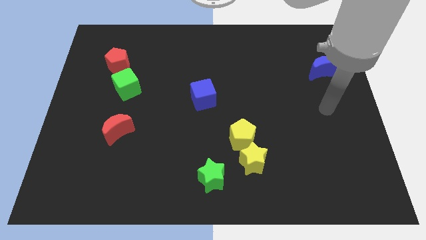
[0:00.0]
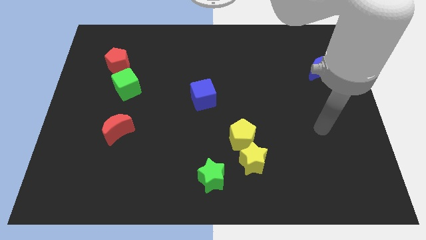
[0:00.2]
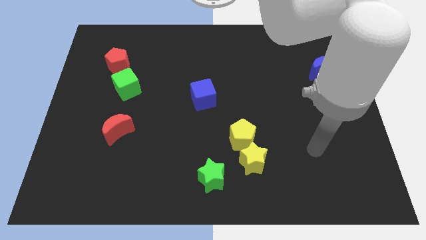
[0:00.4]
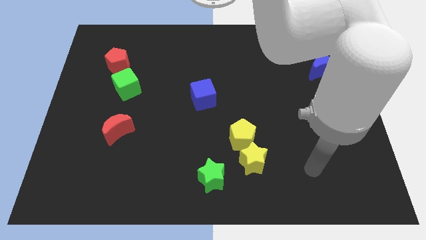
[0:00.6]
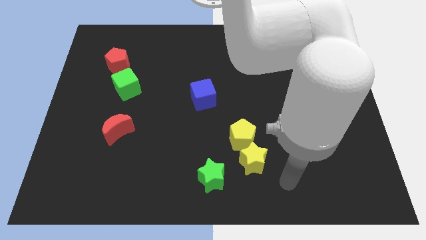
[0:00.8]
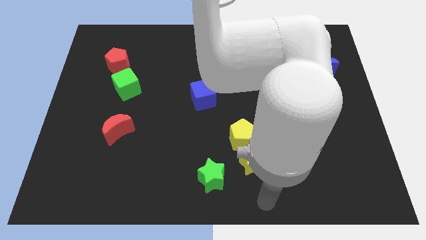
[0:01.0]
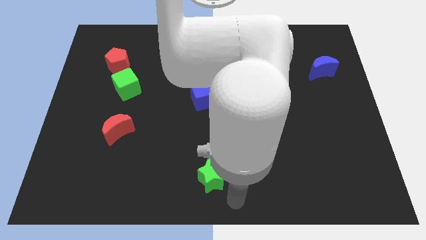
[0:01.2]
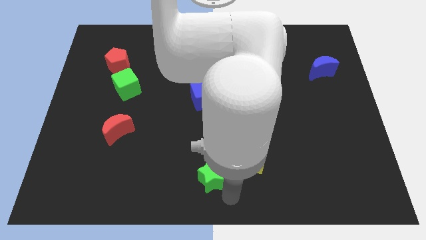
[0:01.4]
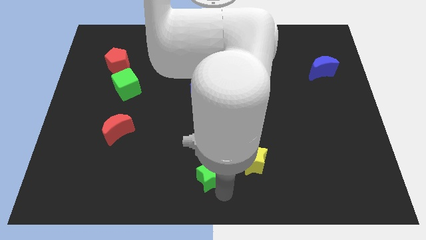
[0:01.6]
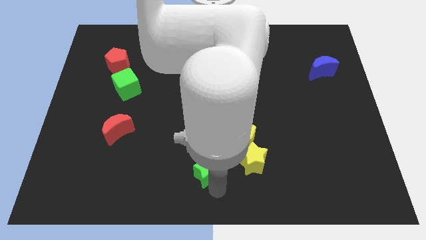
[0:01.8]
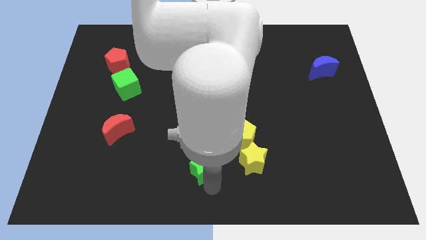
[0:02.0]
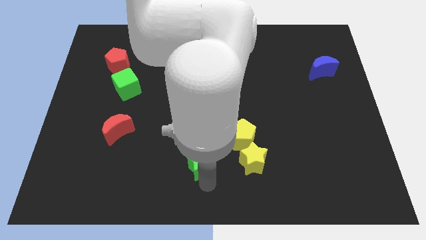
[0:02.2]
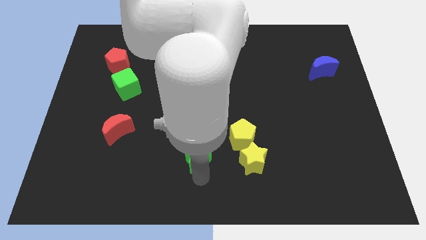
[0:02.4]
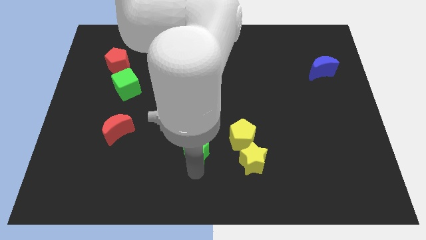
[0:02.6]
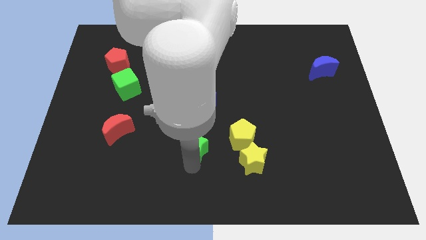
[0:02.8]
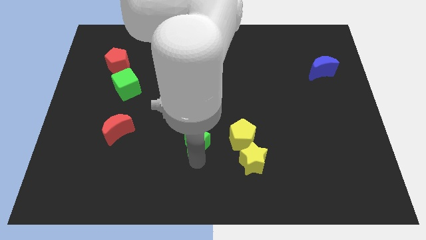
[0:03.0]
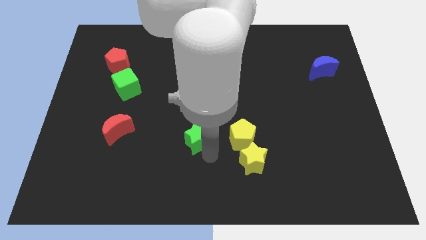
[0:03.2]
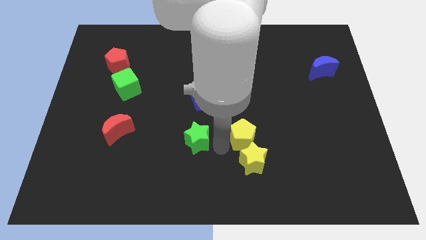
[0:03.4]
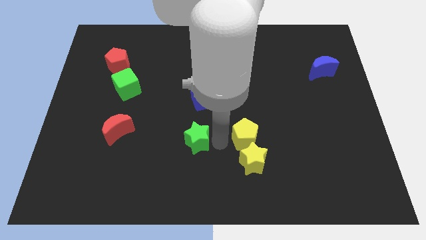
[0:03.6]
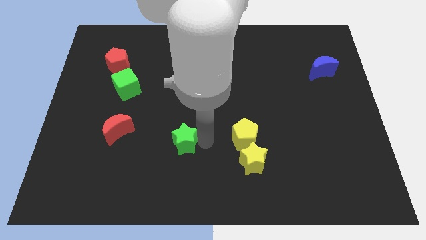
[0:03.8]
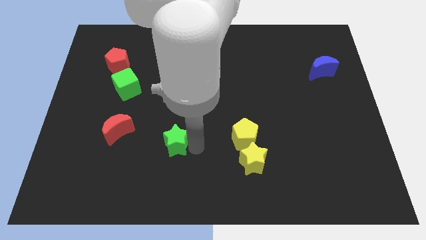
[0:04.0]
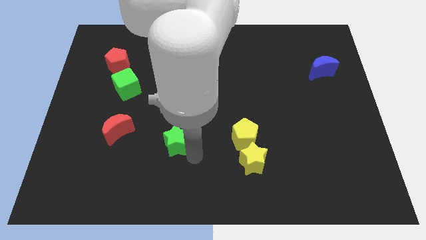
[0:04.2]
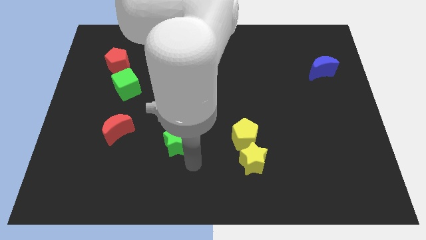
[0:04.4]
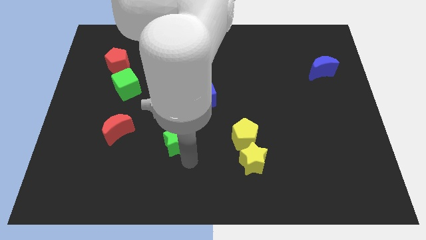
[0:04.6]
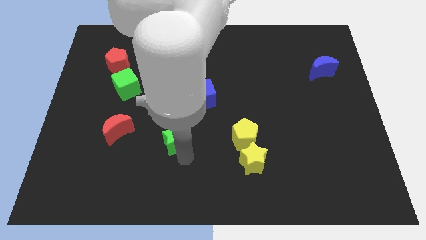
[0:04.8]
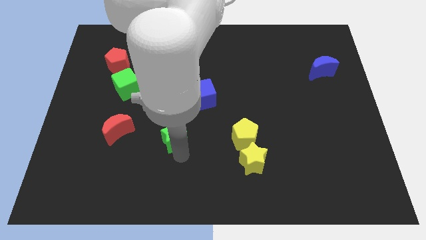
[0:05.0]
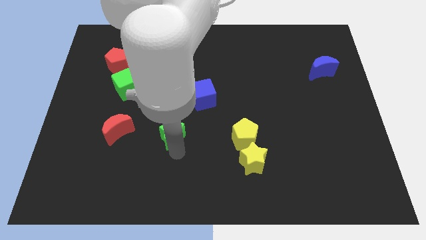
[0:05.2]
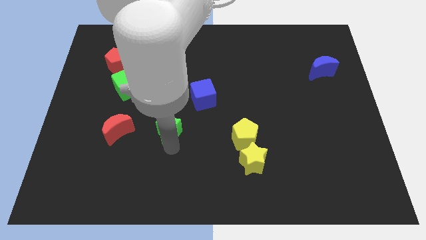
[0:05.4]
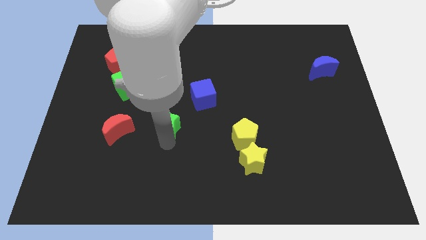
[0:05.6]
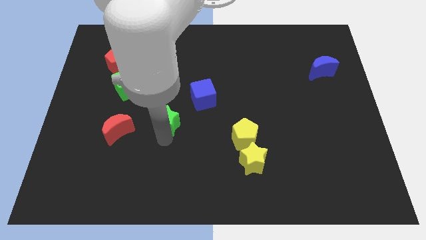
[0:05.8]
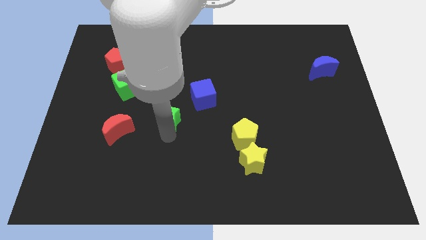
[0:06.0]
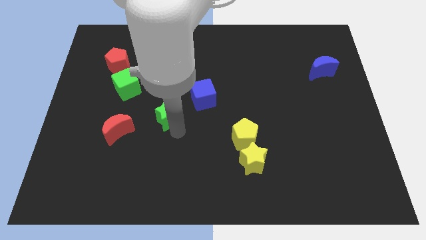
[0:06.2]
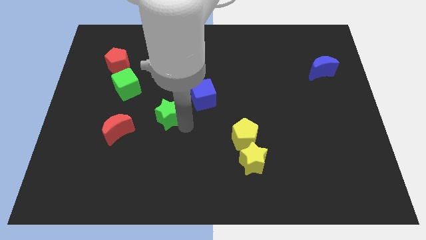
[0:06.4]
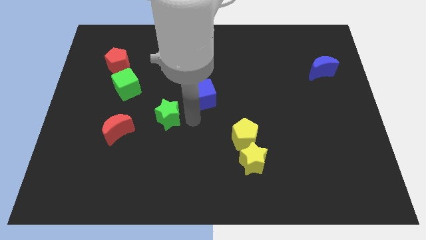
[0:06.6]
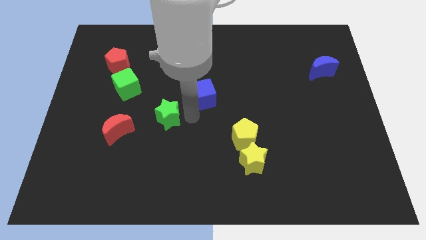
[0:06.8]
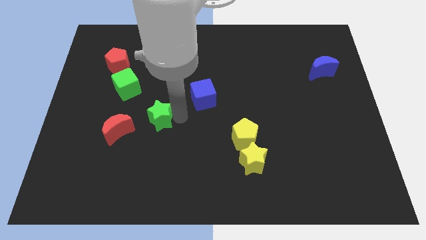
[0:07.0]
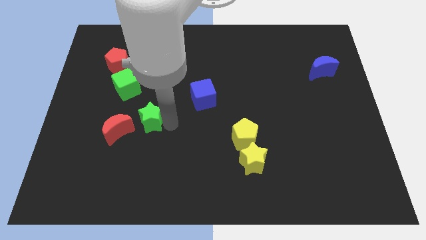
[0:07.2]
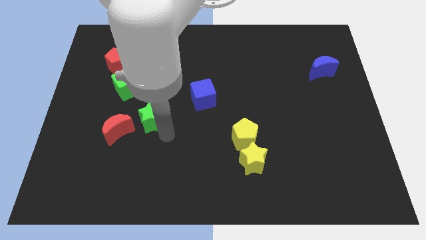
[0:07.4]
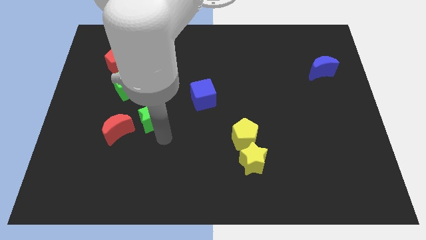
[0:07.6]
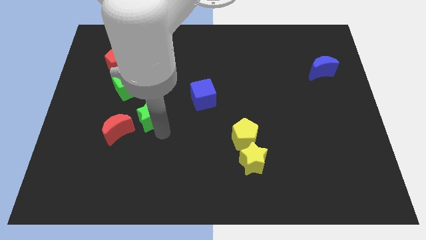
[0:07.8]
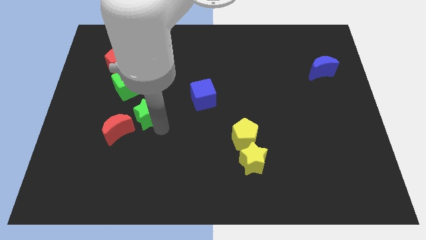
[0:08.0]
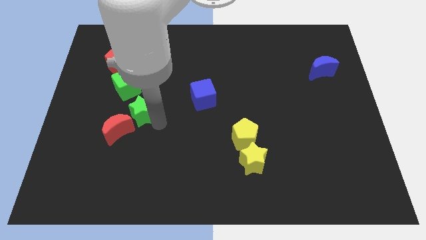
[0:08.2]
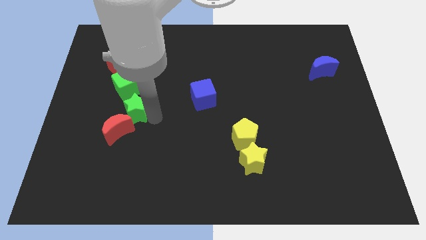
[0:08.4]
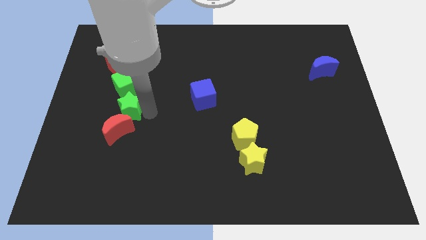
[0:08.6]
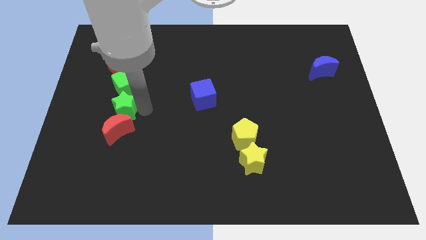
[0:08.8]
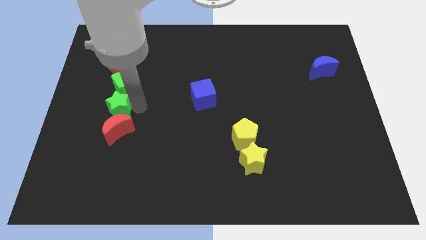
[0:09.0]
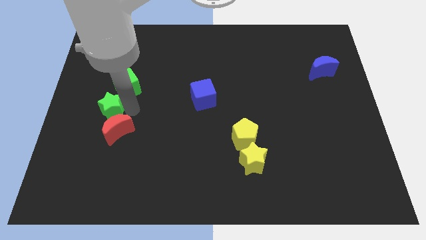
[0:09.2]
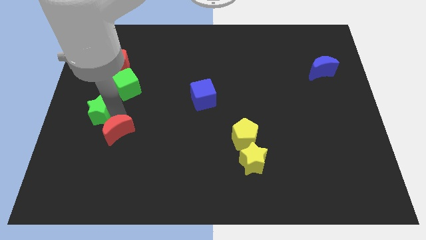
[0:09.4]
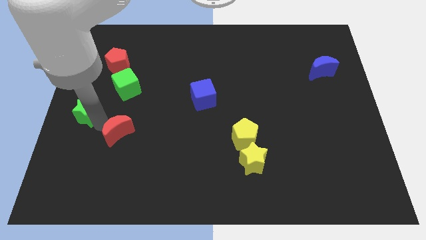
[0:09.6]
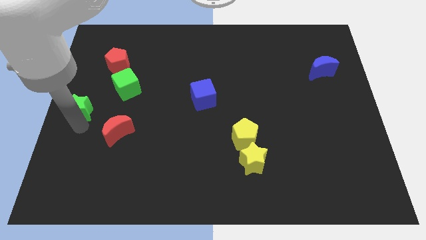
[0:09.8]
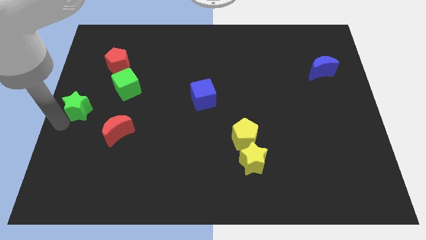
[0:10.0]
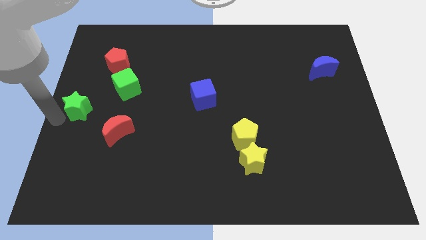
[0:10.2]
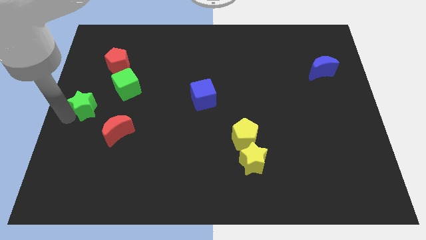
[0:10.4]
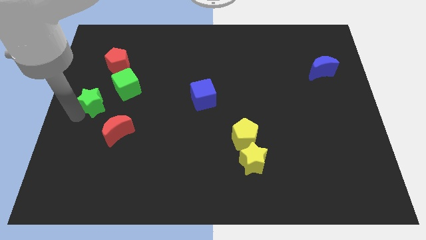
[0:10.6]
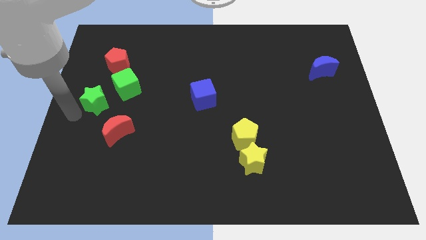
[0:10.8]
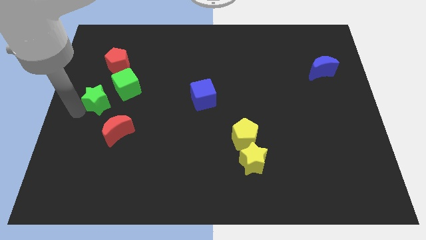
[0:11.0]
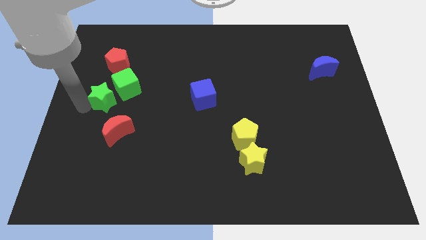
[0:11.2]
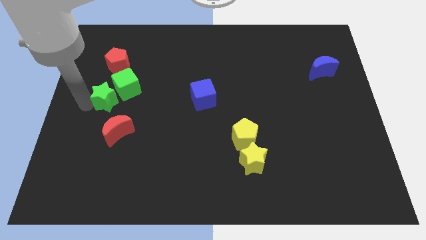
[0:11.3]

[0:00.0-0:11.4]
move the green star next to the green cube

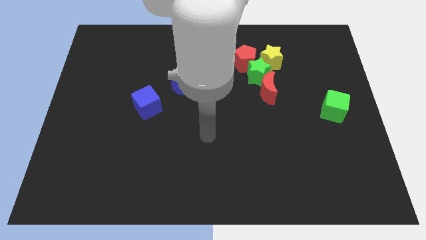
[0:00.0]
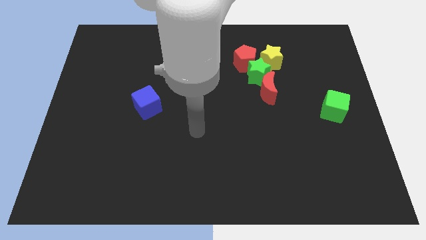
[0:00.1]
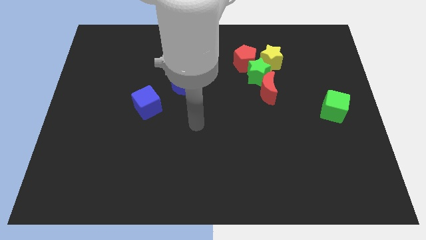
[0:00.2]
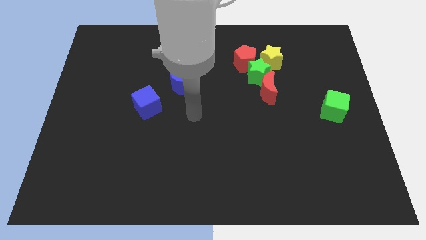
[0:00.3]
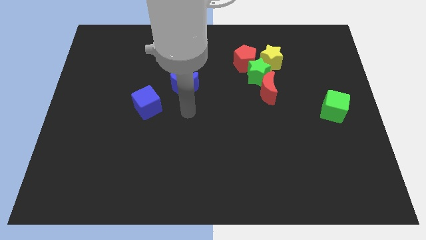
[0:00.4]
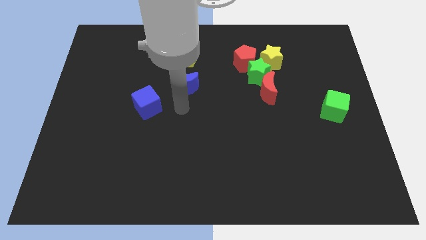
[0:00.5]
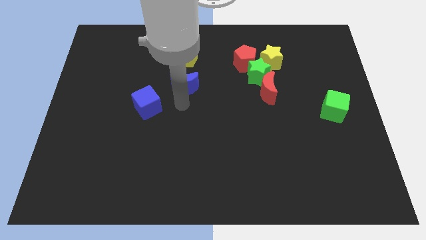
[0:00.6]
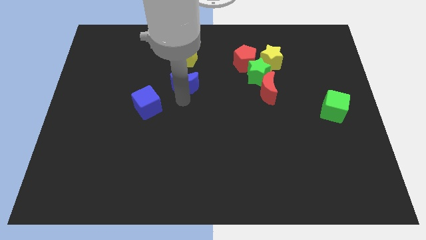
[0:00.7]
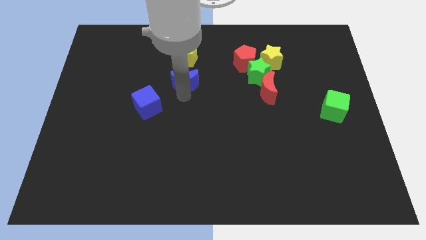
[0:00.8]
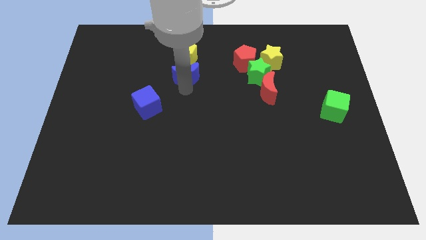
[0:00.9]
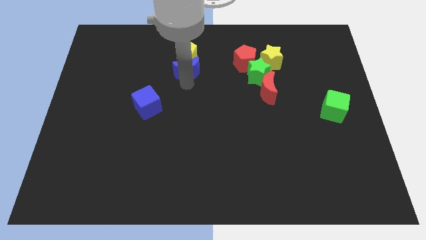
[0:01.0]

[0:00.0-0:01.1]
move the blue moon close to the yellow pentagon
